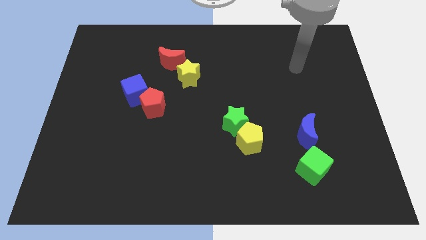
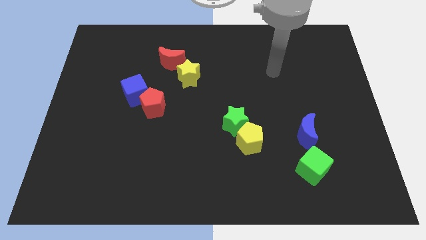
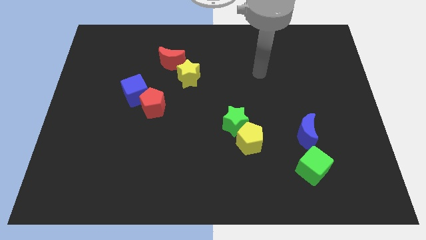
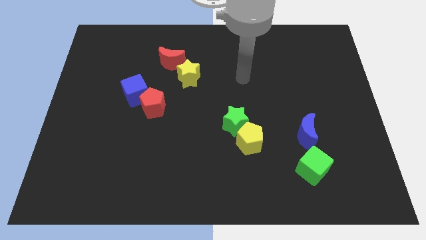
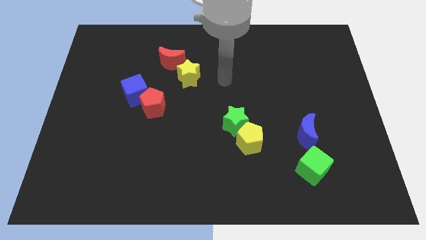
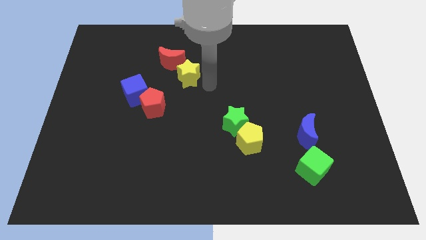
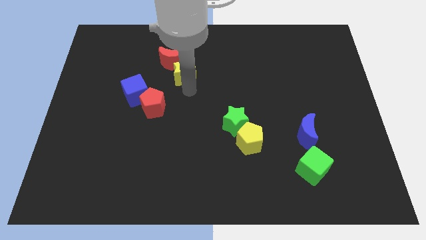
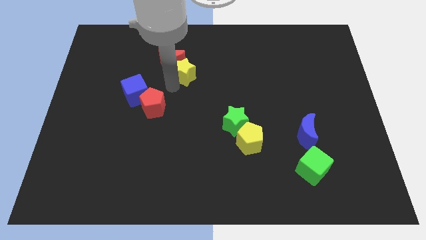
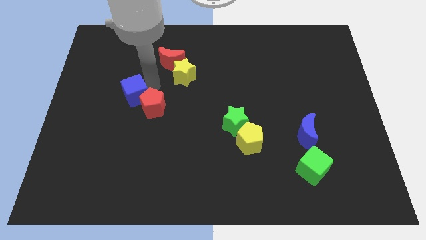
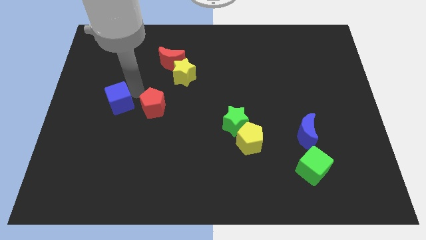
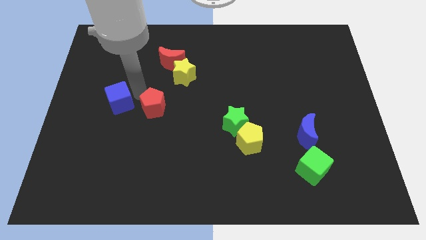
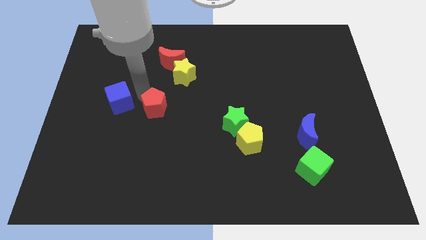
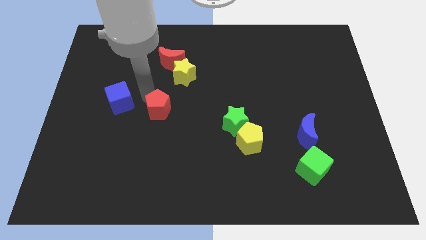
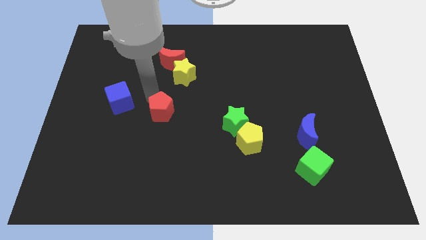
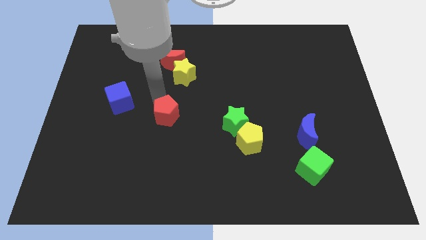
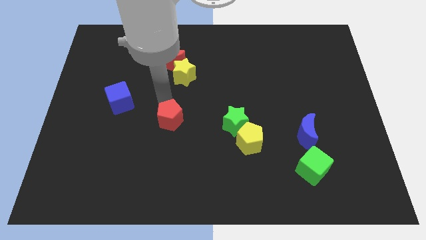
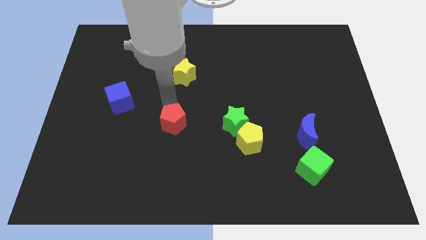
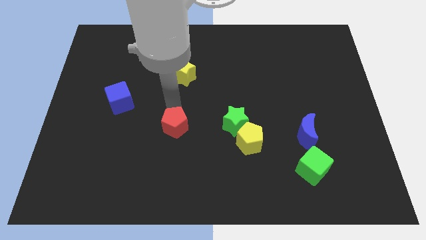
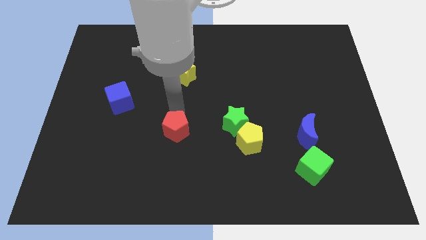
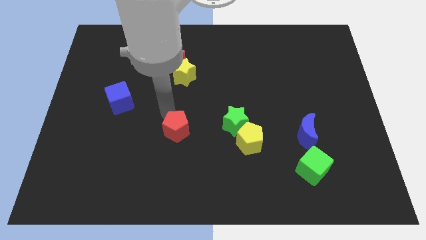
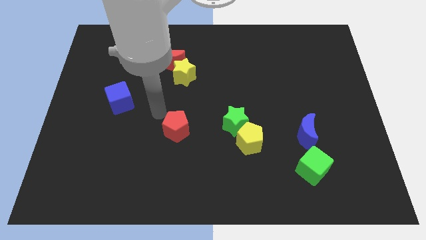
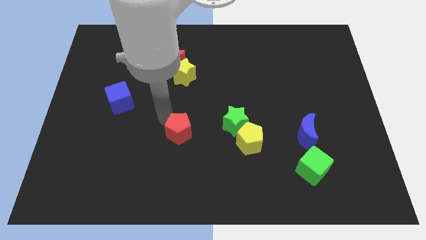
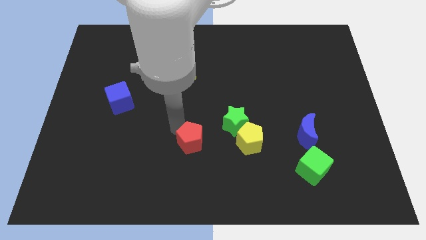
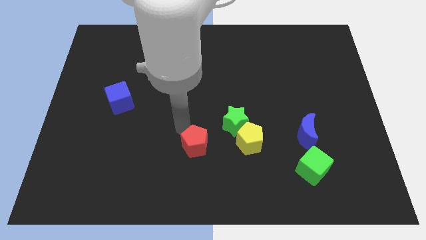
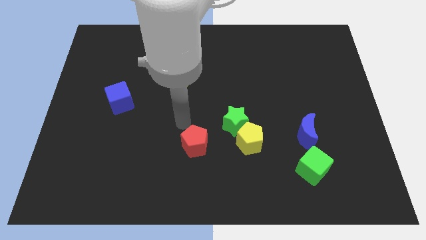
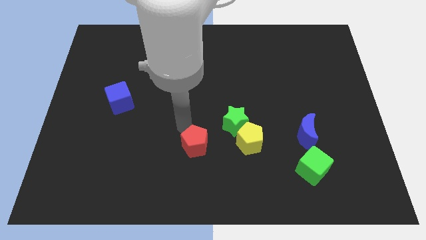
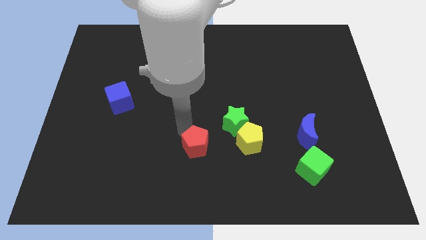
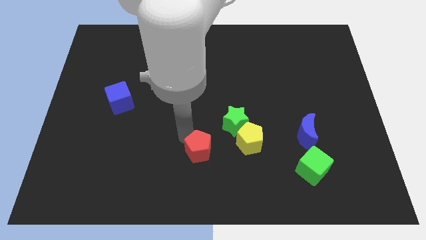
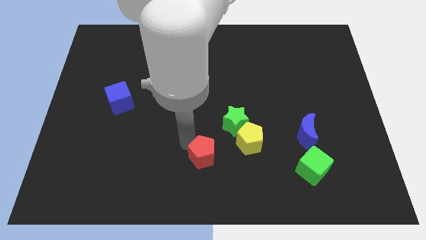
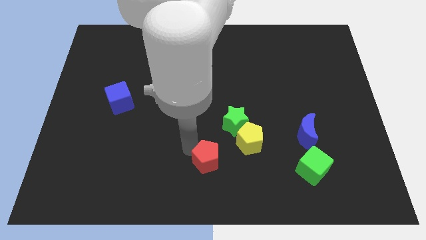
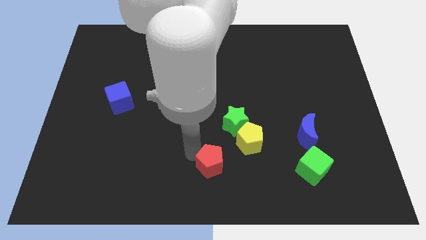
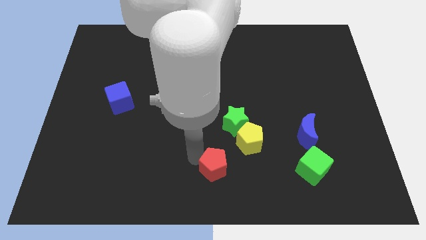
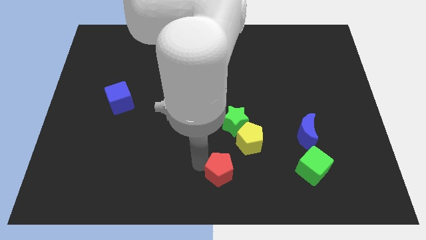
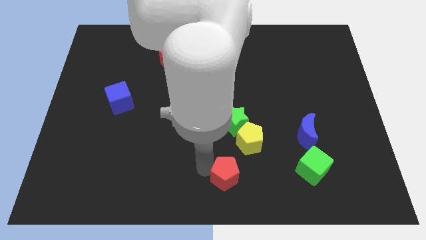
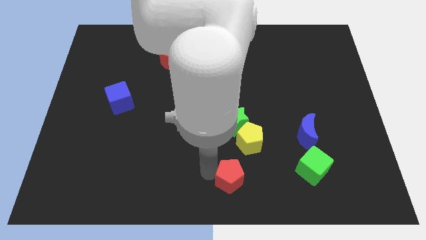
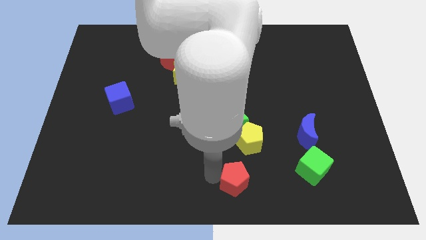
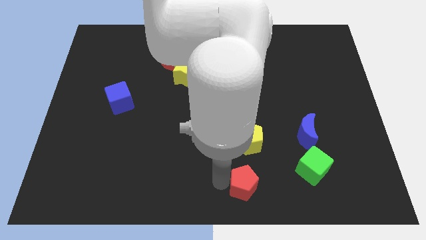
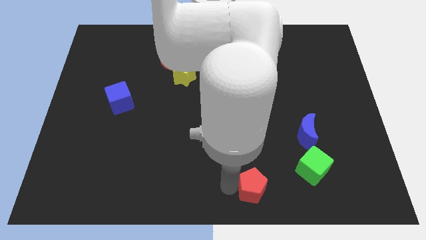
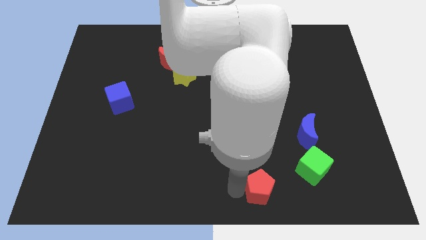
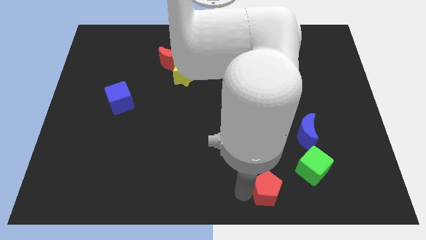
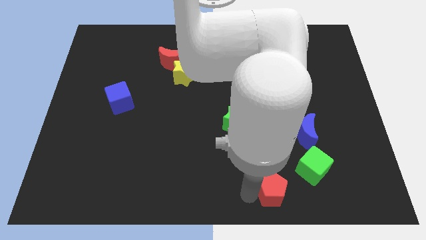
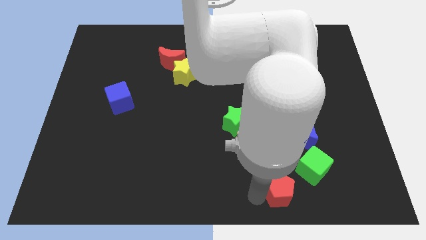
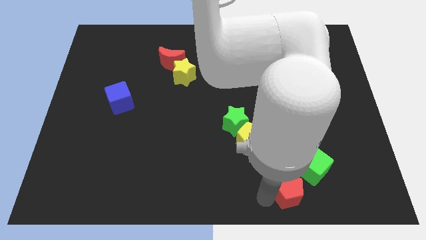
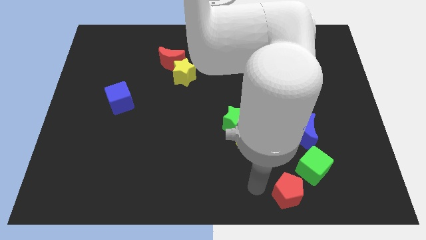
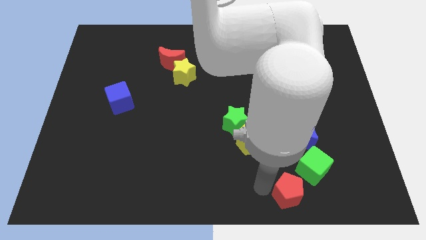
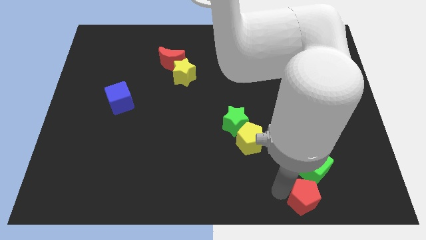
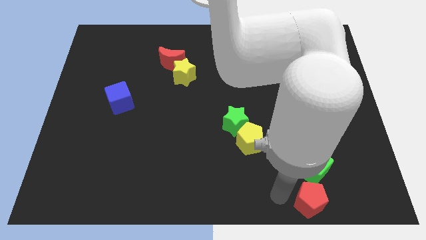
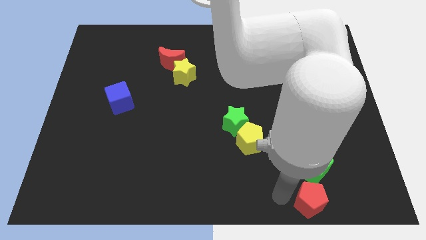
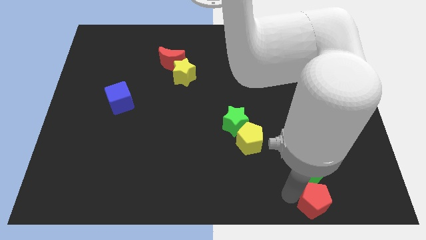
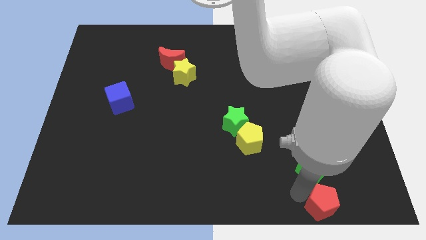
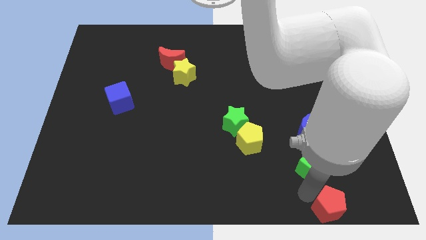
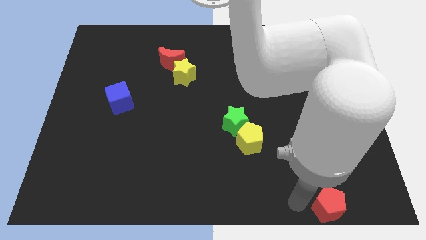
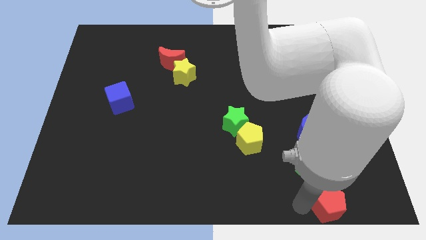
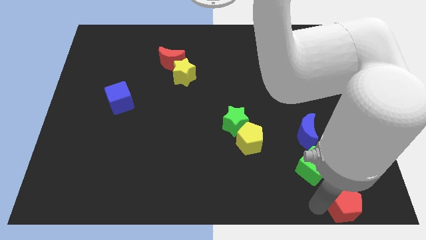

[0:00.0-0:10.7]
move the red pentagon to the bottom right corner

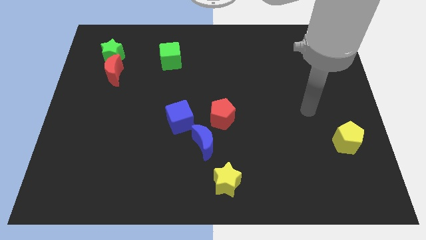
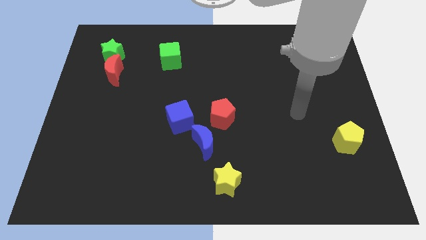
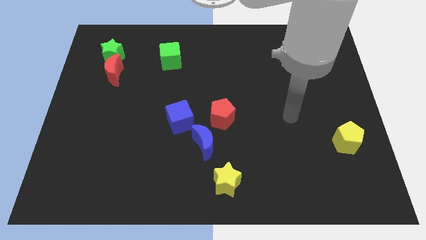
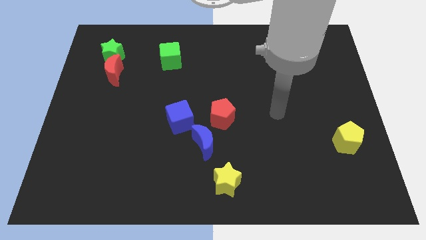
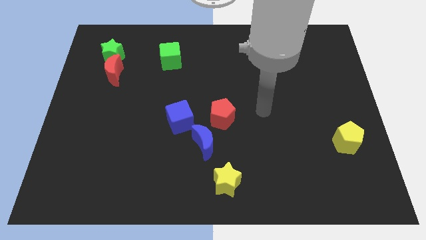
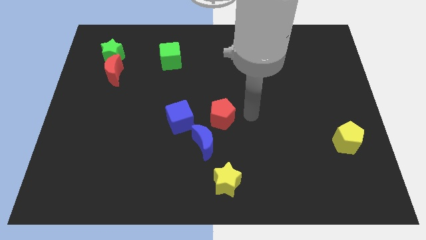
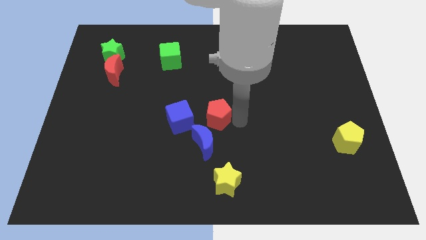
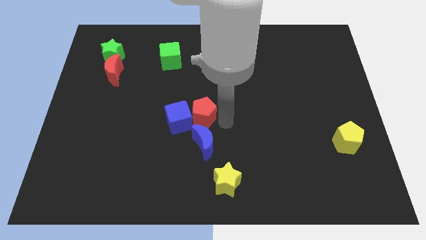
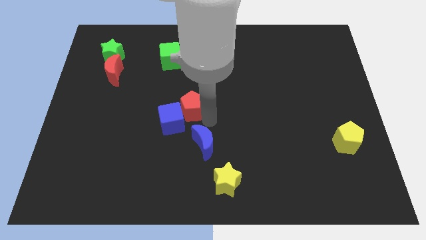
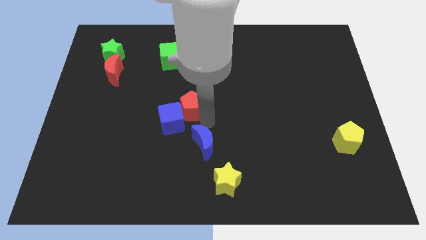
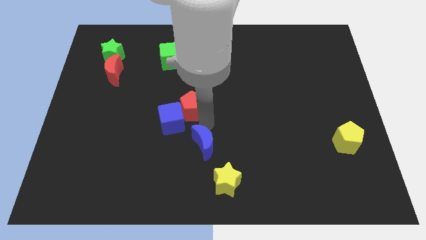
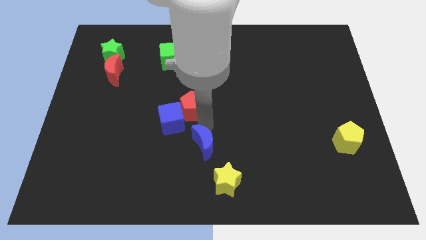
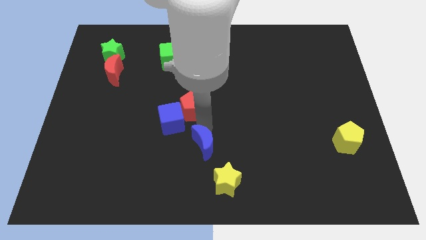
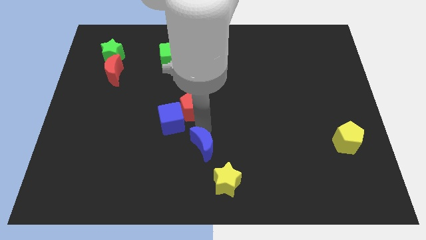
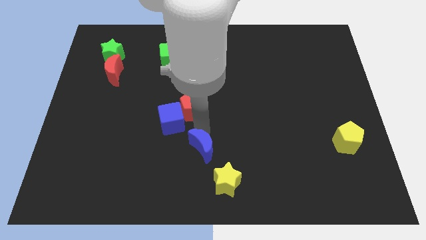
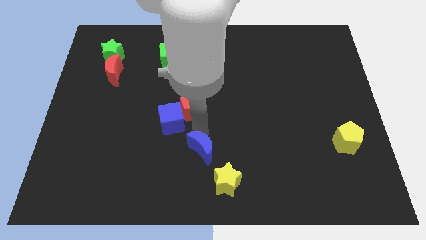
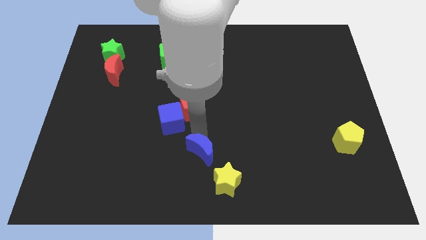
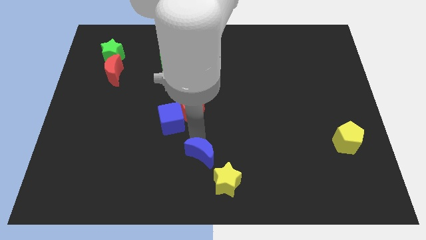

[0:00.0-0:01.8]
move the blue moon to the bottom
